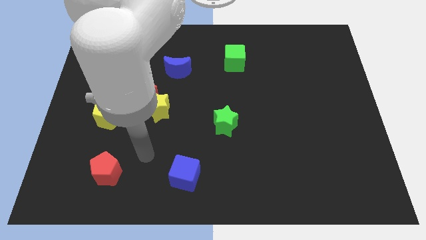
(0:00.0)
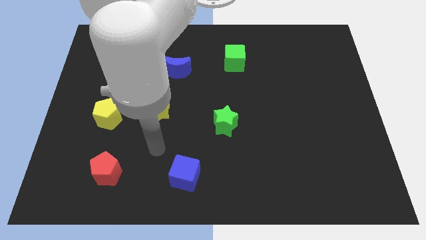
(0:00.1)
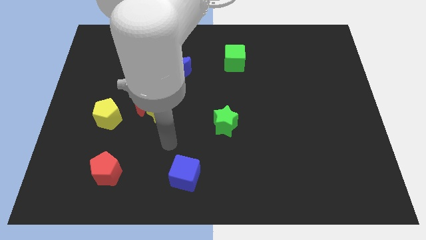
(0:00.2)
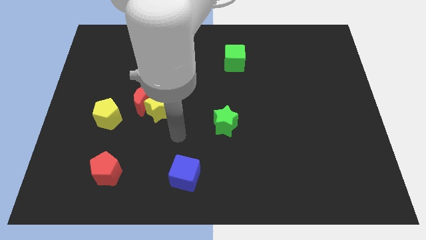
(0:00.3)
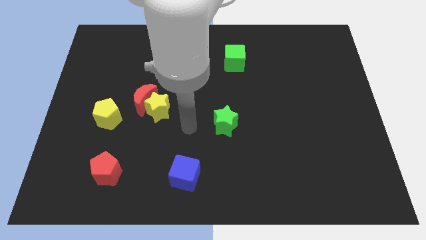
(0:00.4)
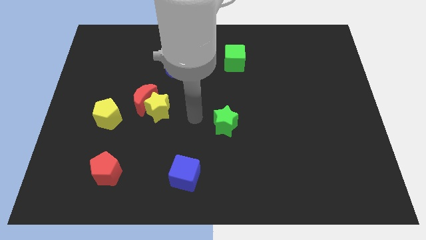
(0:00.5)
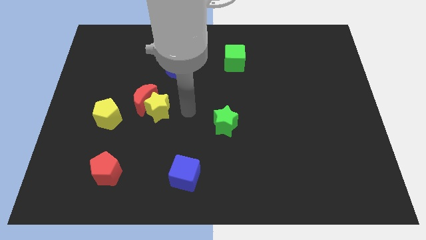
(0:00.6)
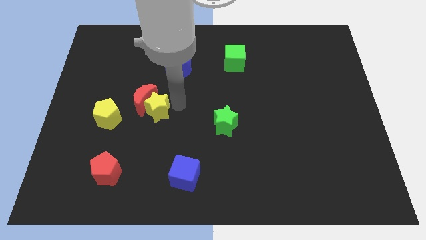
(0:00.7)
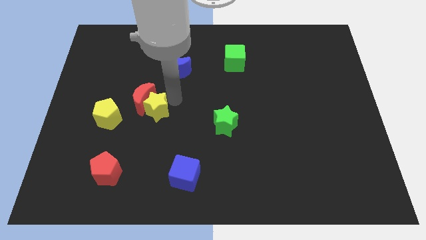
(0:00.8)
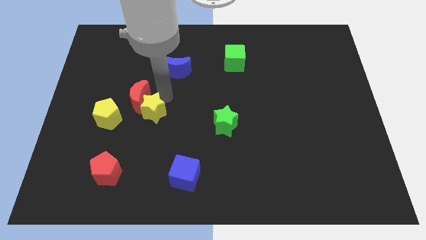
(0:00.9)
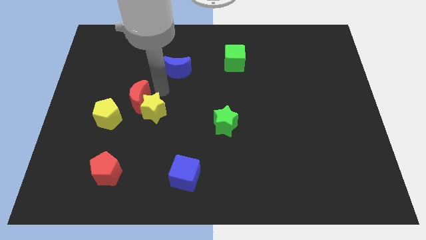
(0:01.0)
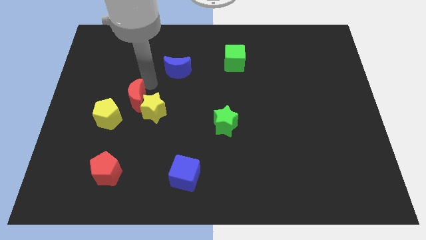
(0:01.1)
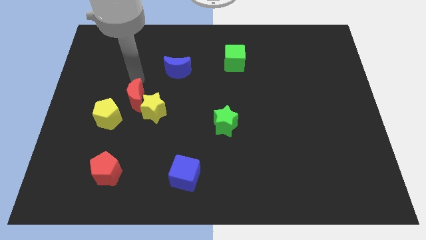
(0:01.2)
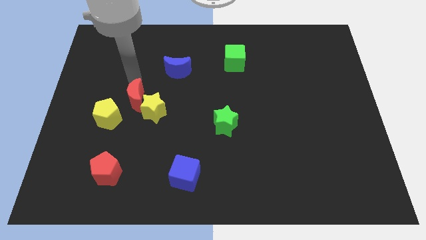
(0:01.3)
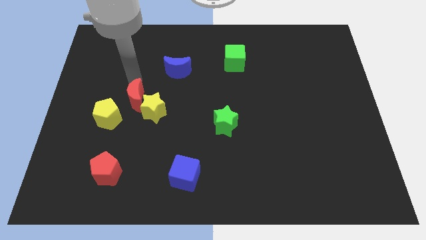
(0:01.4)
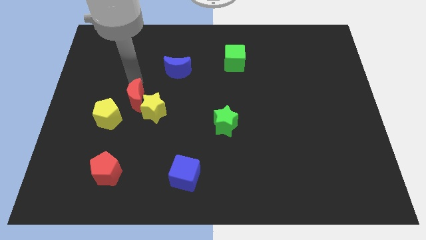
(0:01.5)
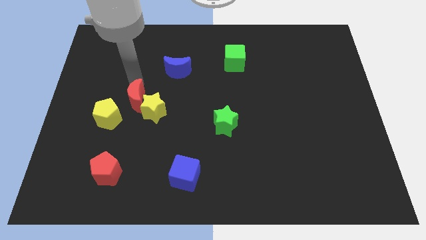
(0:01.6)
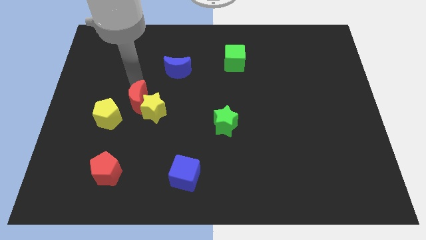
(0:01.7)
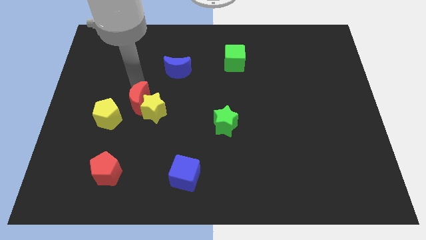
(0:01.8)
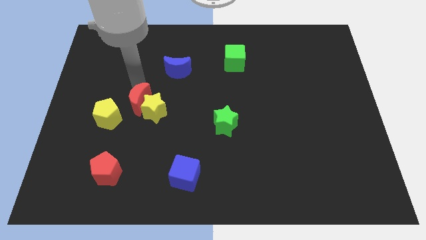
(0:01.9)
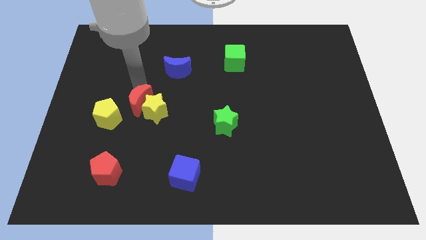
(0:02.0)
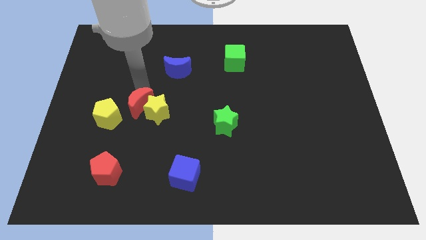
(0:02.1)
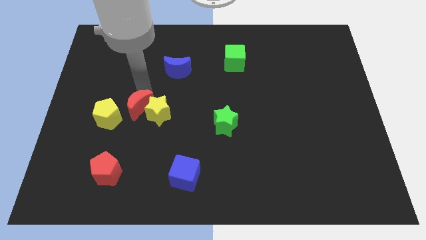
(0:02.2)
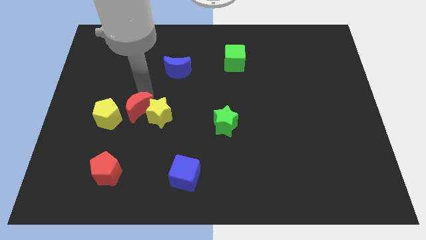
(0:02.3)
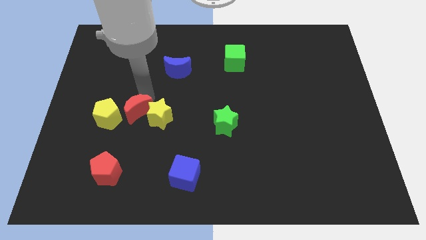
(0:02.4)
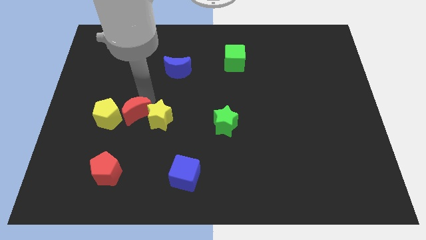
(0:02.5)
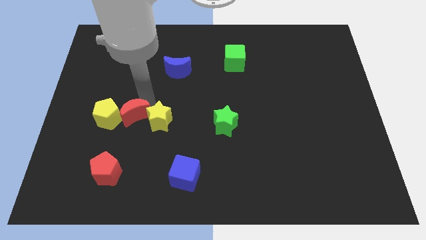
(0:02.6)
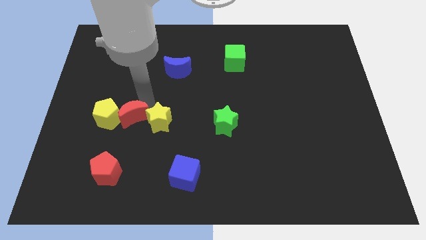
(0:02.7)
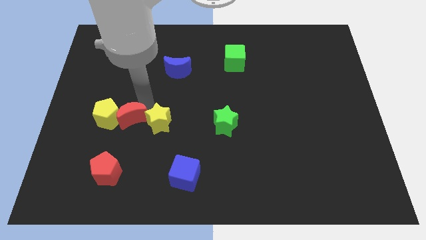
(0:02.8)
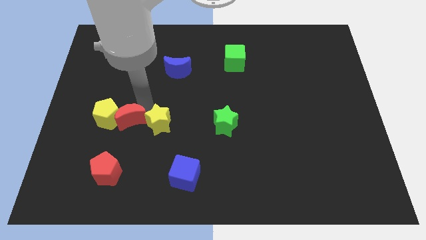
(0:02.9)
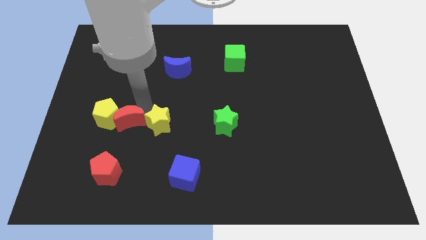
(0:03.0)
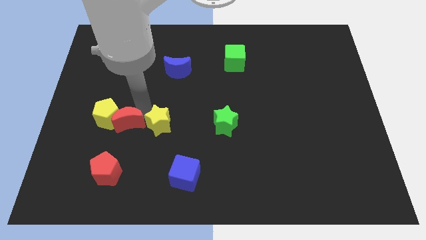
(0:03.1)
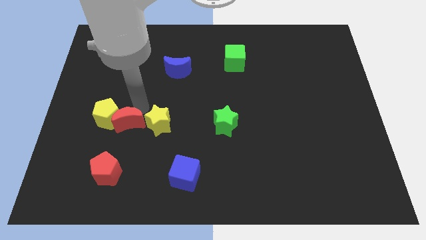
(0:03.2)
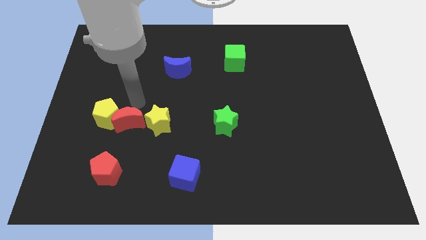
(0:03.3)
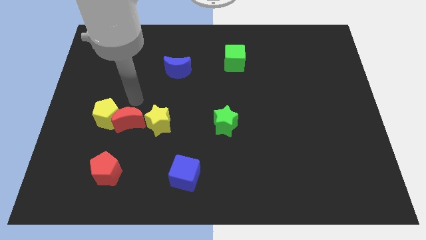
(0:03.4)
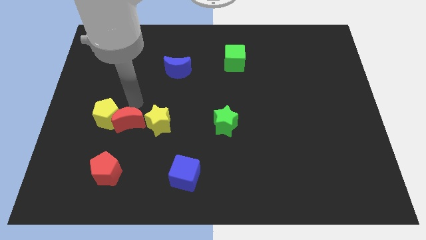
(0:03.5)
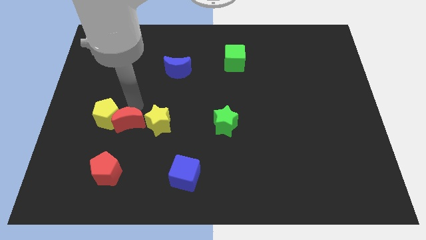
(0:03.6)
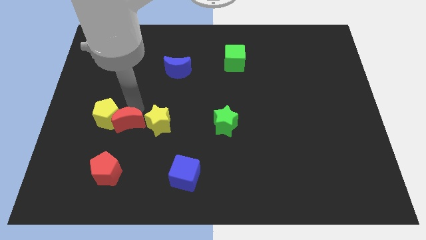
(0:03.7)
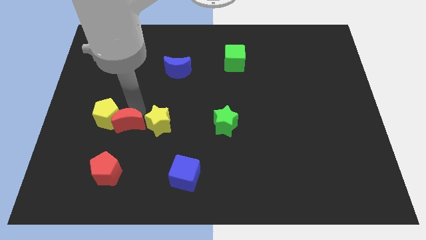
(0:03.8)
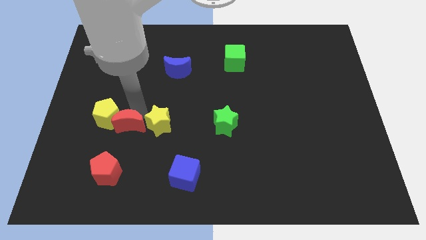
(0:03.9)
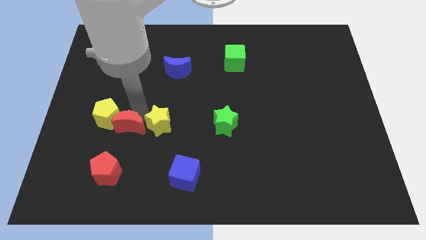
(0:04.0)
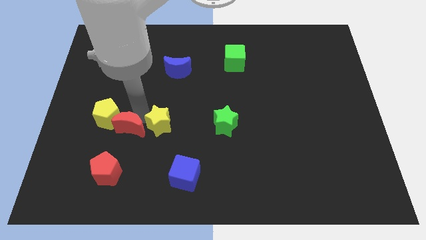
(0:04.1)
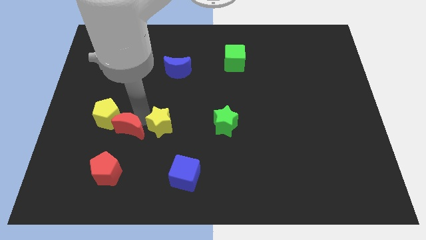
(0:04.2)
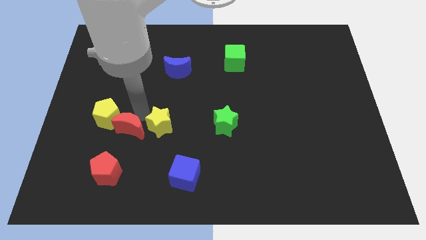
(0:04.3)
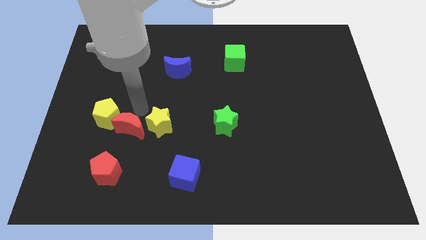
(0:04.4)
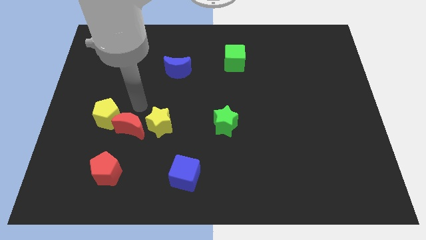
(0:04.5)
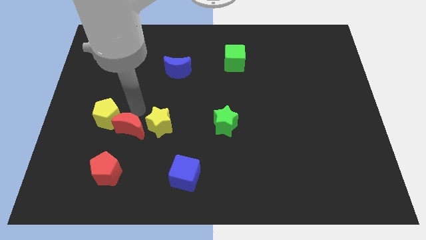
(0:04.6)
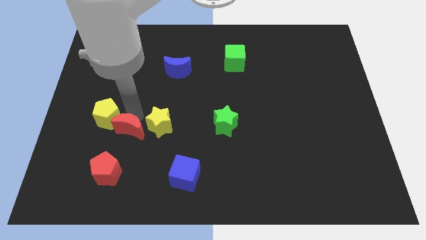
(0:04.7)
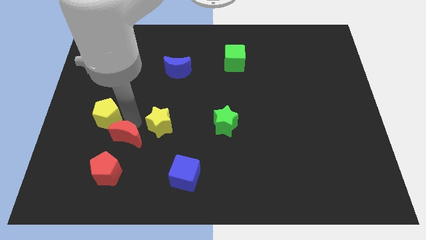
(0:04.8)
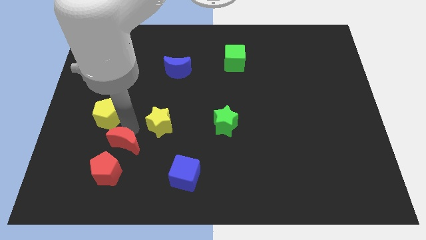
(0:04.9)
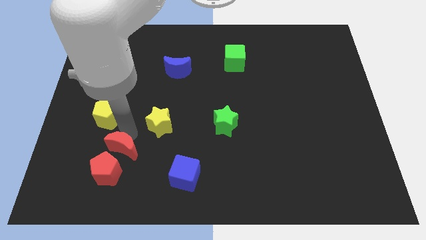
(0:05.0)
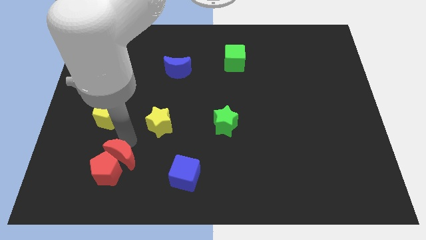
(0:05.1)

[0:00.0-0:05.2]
slide the red moon close to the red pentagon

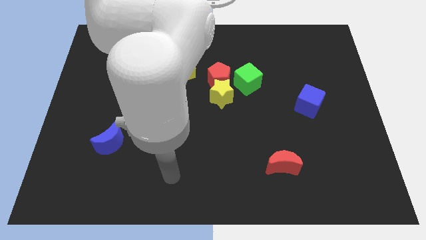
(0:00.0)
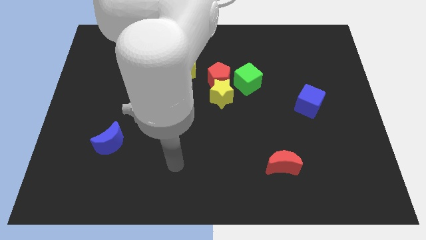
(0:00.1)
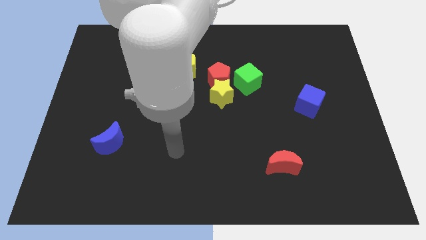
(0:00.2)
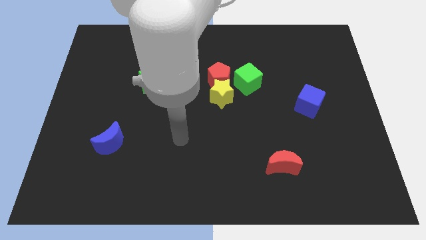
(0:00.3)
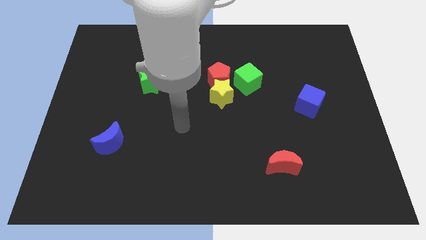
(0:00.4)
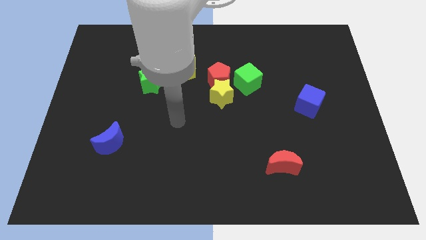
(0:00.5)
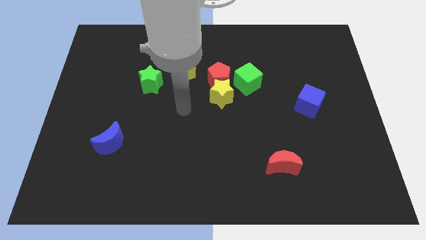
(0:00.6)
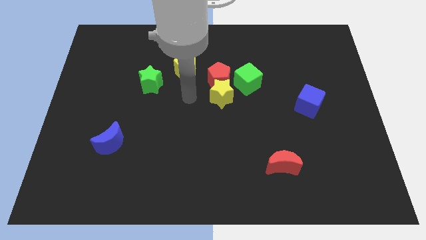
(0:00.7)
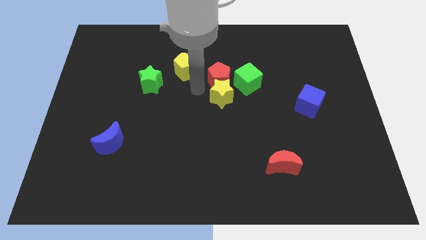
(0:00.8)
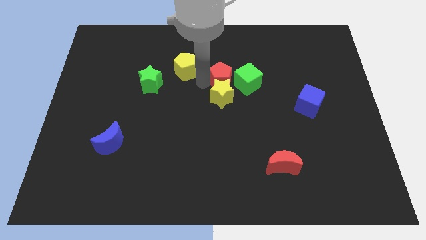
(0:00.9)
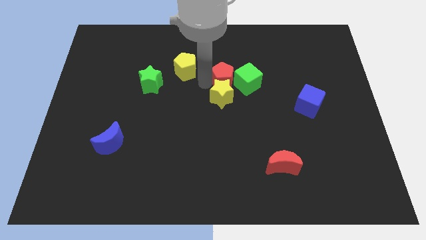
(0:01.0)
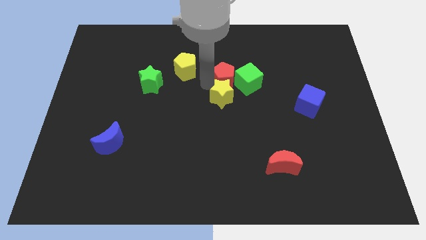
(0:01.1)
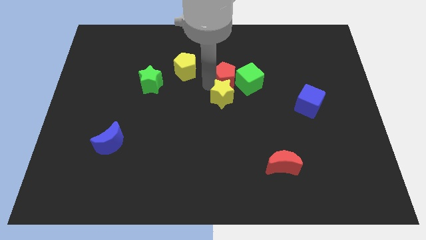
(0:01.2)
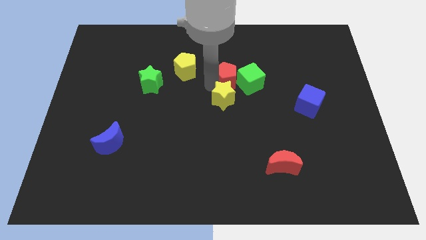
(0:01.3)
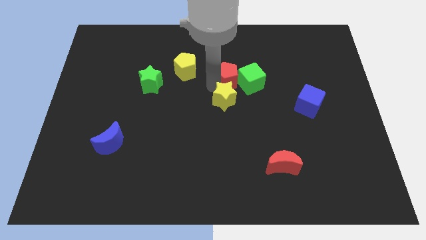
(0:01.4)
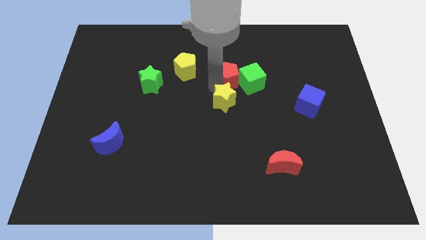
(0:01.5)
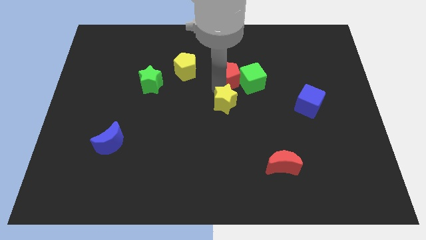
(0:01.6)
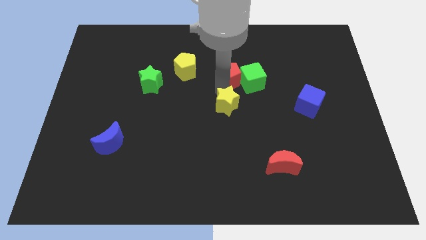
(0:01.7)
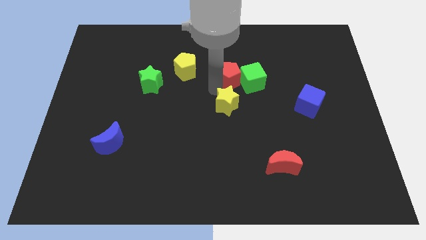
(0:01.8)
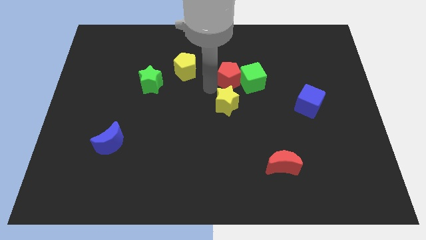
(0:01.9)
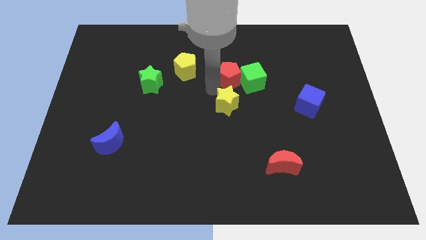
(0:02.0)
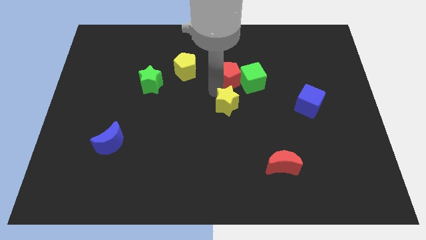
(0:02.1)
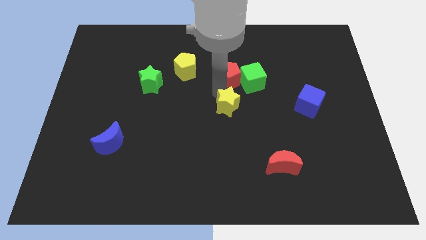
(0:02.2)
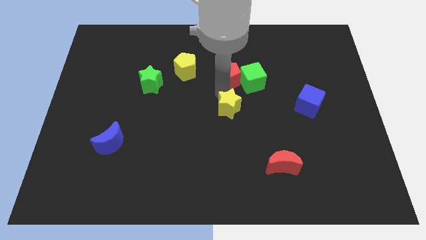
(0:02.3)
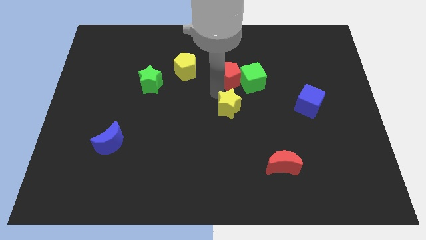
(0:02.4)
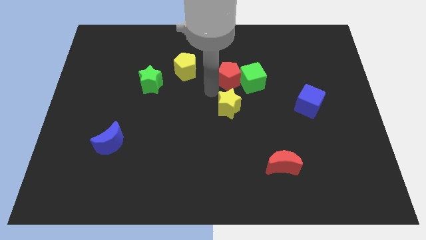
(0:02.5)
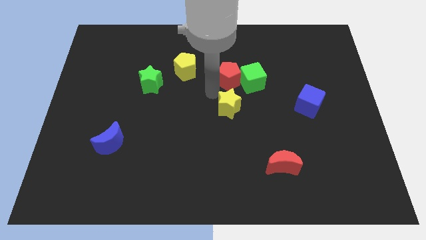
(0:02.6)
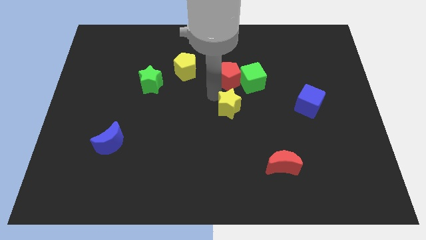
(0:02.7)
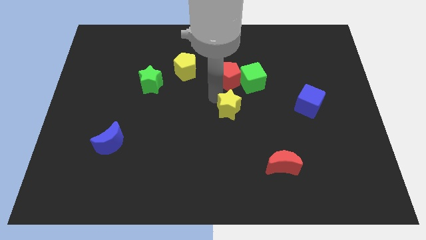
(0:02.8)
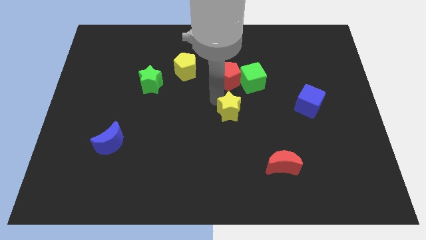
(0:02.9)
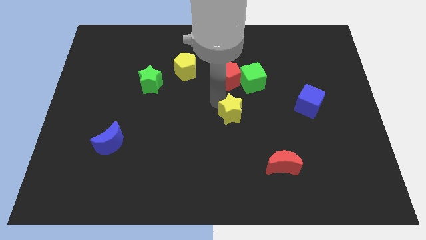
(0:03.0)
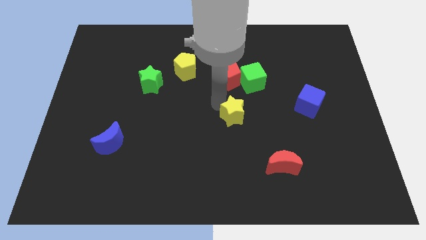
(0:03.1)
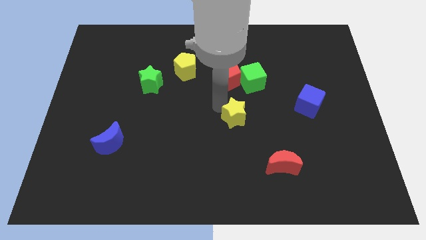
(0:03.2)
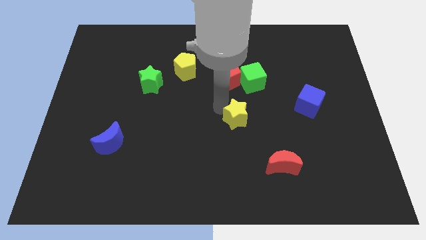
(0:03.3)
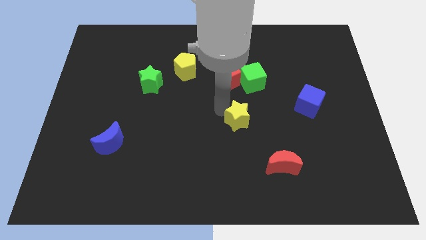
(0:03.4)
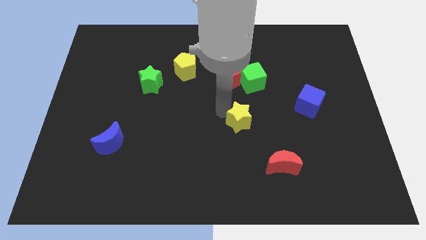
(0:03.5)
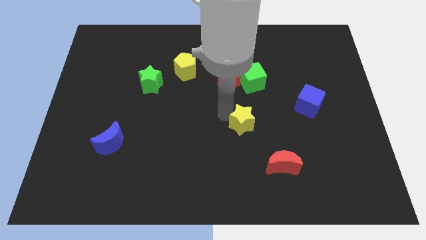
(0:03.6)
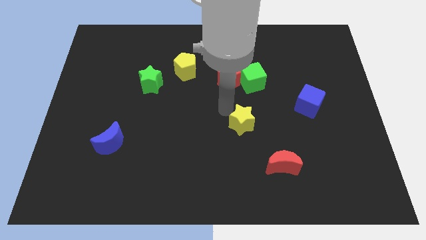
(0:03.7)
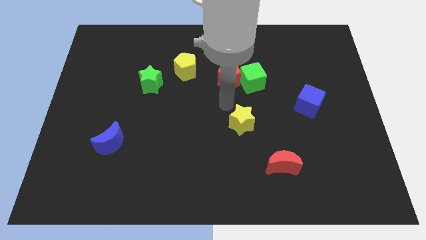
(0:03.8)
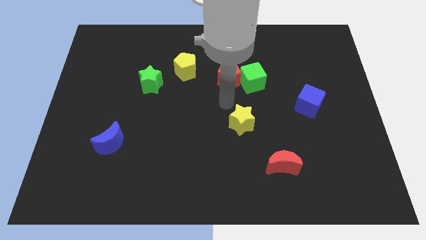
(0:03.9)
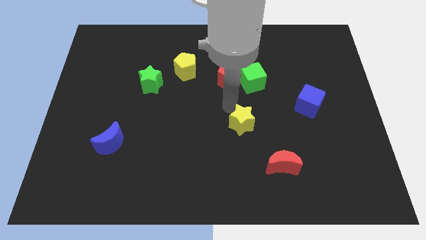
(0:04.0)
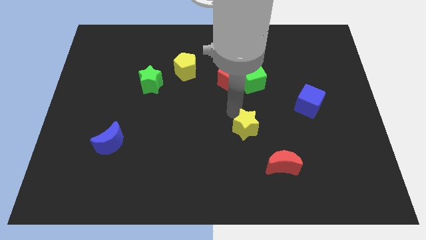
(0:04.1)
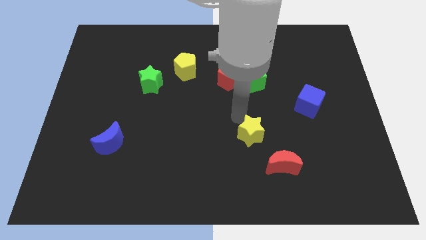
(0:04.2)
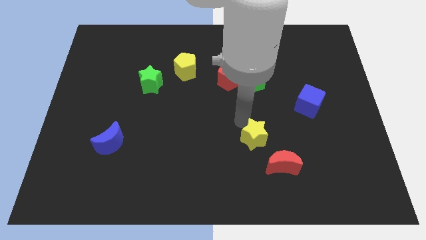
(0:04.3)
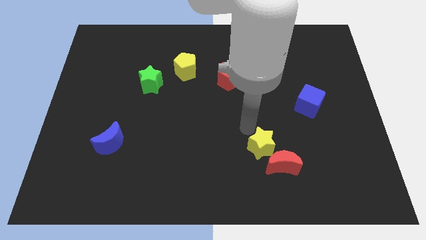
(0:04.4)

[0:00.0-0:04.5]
move the yellow star towards the red moon
